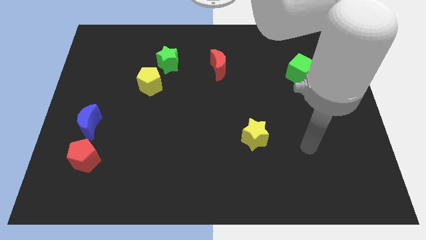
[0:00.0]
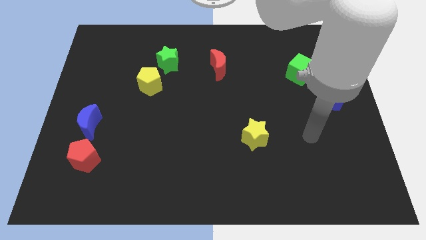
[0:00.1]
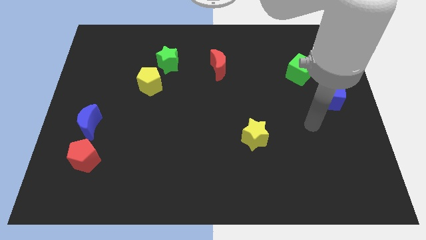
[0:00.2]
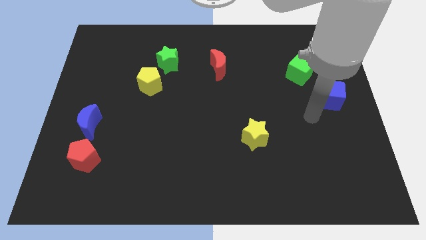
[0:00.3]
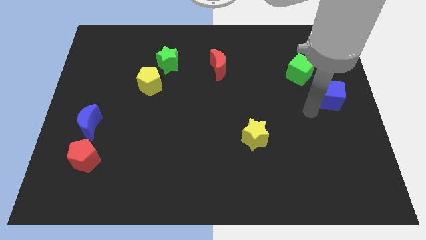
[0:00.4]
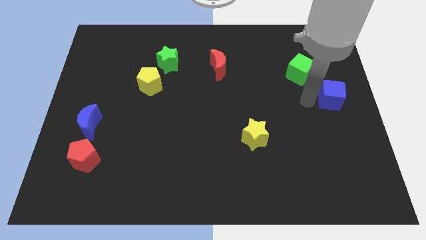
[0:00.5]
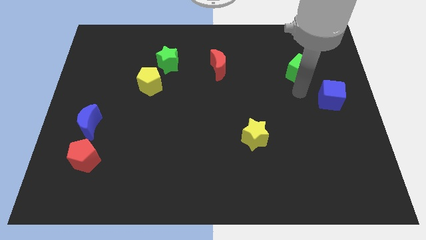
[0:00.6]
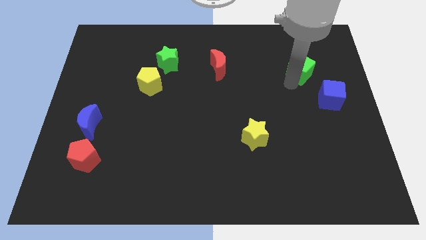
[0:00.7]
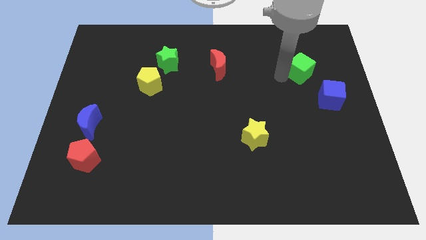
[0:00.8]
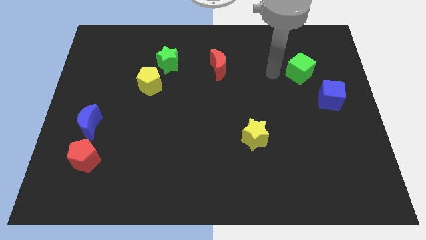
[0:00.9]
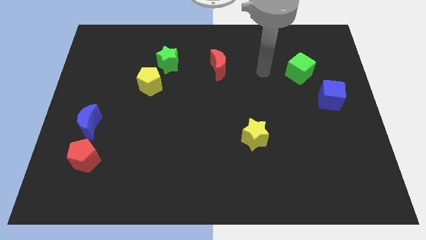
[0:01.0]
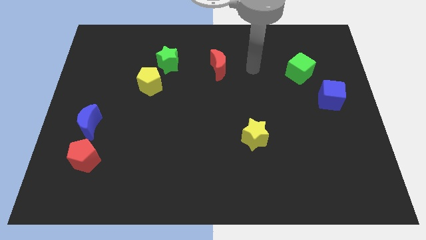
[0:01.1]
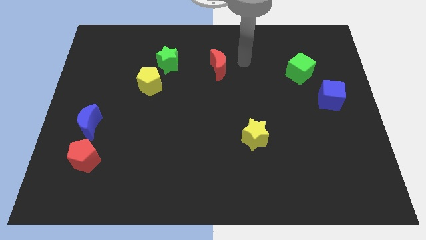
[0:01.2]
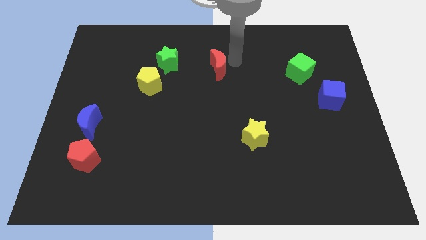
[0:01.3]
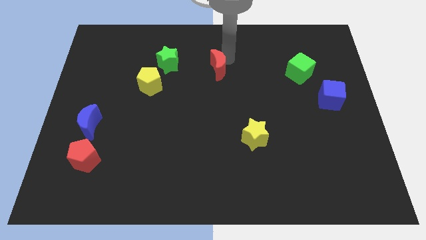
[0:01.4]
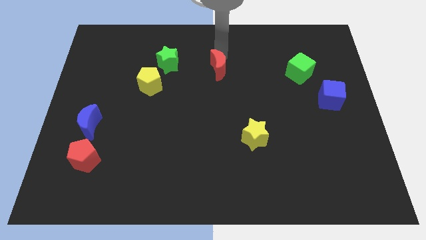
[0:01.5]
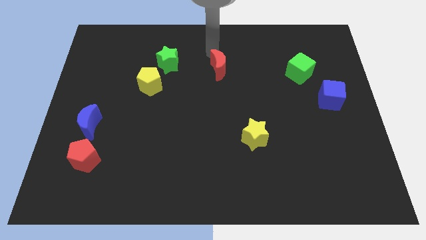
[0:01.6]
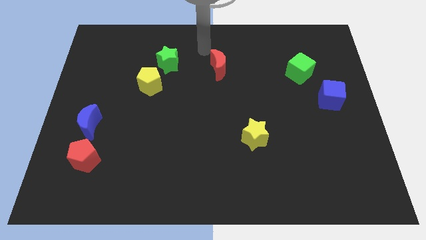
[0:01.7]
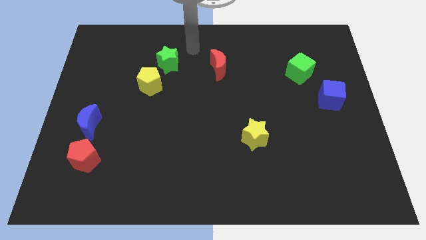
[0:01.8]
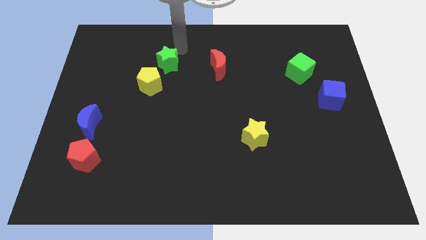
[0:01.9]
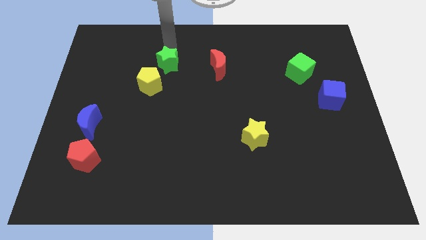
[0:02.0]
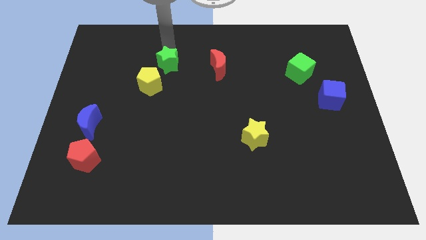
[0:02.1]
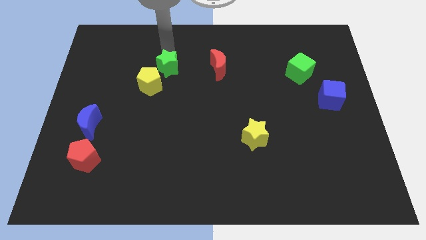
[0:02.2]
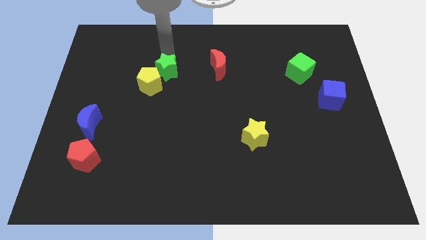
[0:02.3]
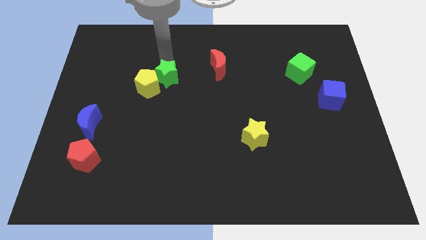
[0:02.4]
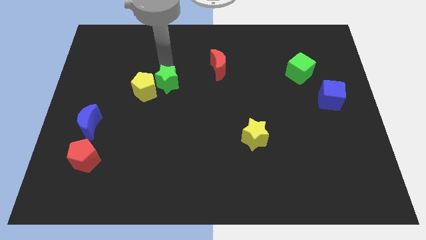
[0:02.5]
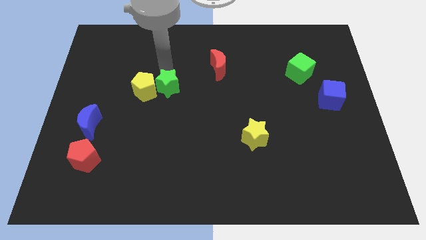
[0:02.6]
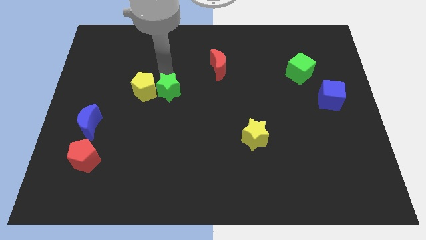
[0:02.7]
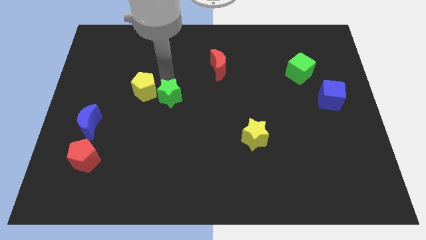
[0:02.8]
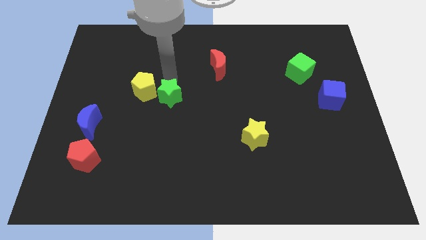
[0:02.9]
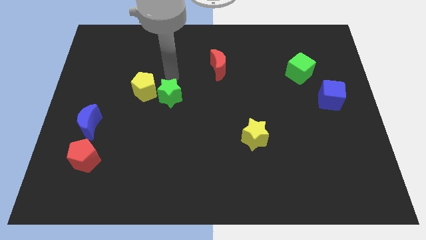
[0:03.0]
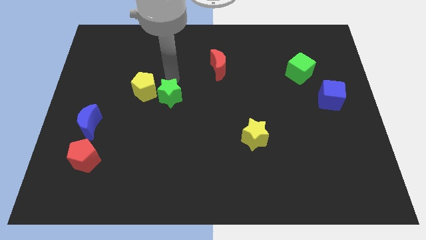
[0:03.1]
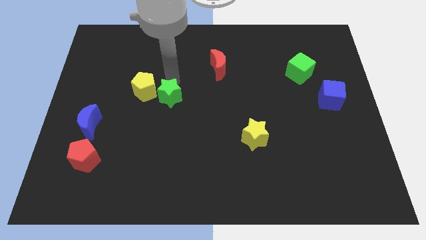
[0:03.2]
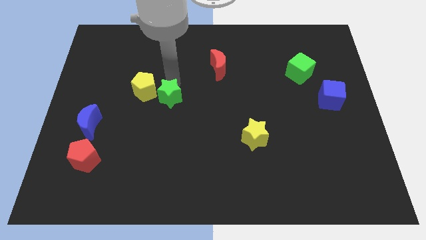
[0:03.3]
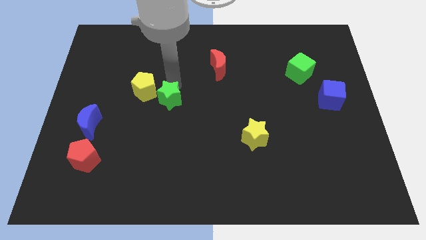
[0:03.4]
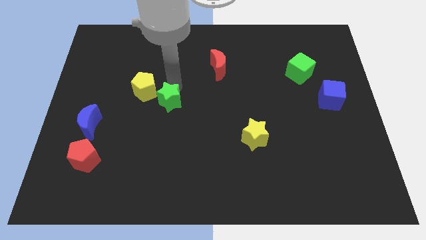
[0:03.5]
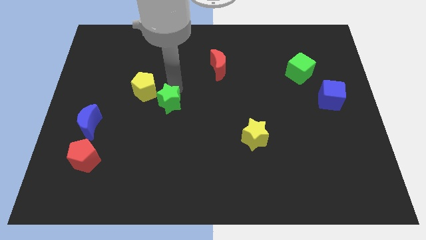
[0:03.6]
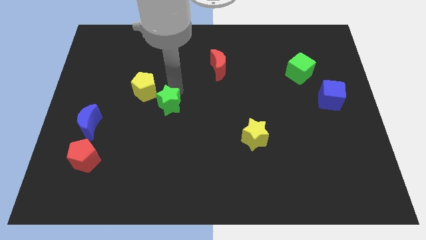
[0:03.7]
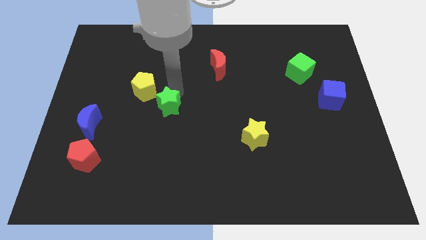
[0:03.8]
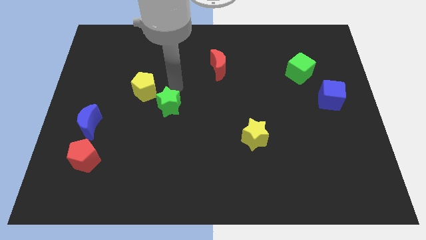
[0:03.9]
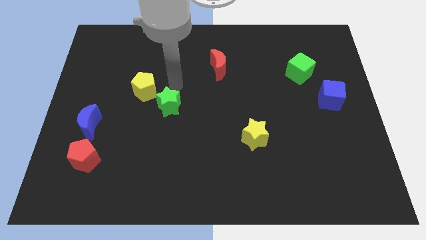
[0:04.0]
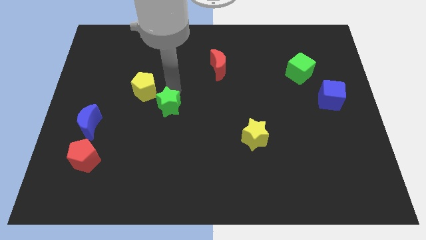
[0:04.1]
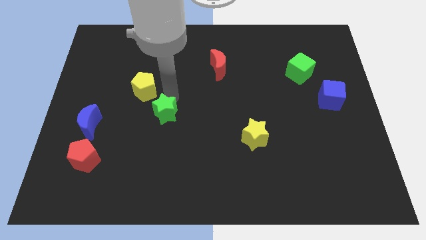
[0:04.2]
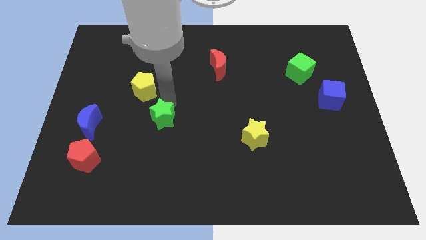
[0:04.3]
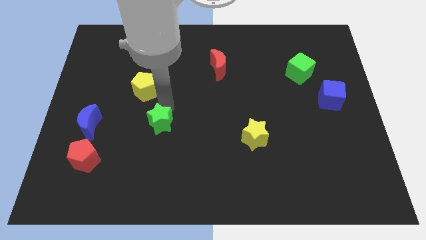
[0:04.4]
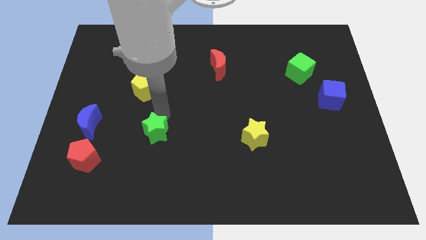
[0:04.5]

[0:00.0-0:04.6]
push the green star down

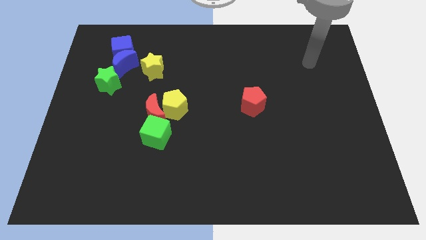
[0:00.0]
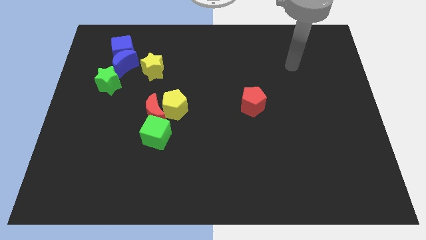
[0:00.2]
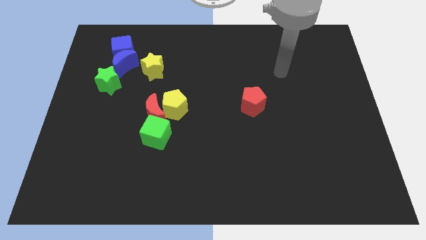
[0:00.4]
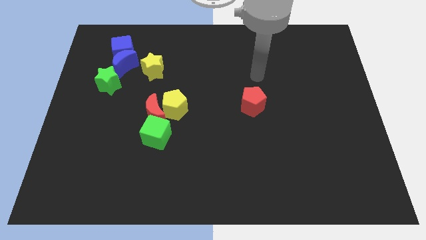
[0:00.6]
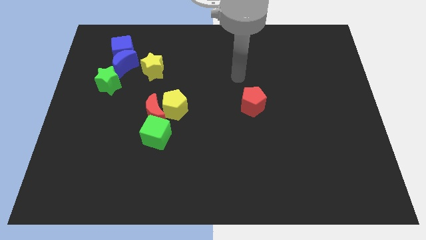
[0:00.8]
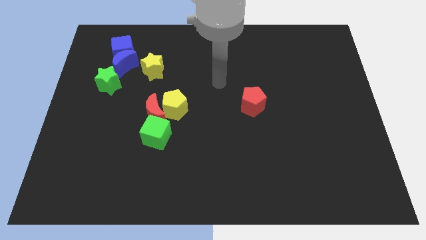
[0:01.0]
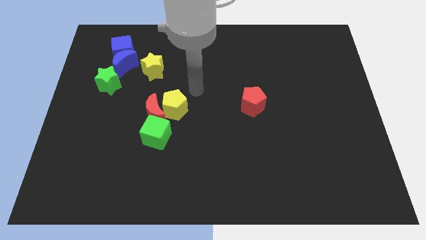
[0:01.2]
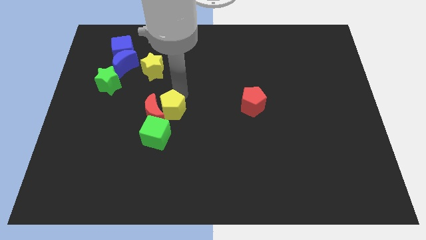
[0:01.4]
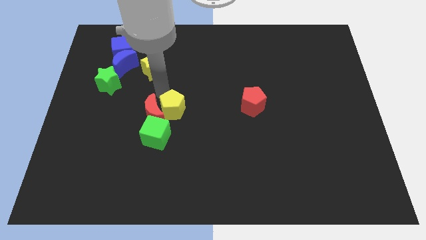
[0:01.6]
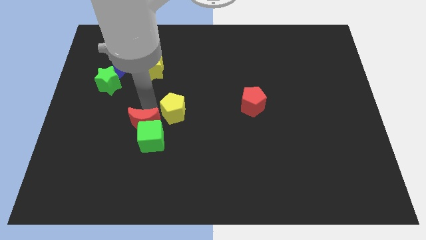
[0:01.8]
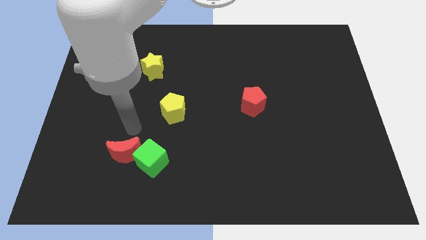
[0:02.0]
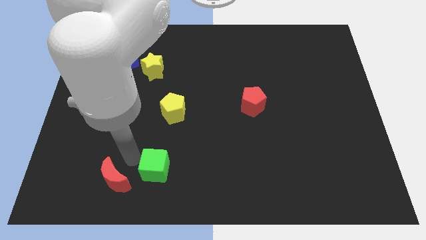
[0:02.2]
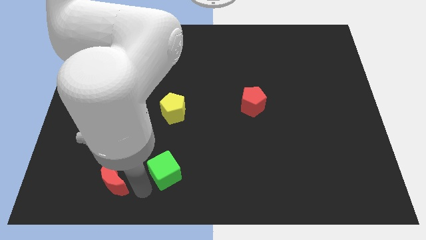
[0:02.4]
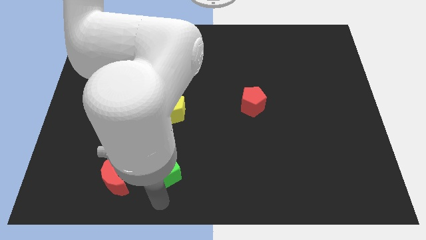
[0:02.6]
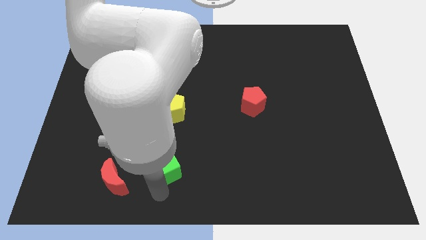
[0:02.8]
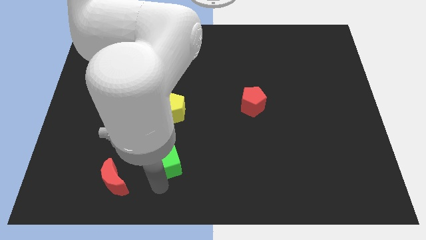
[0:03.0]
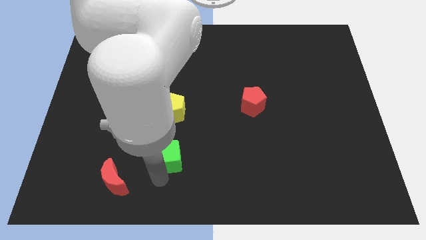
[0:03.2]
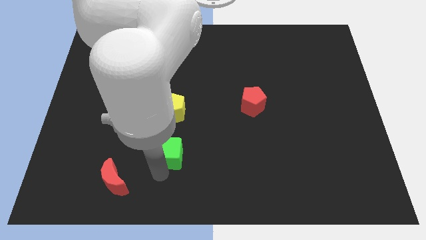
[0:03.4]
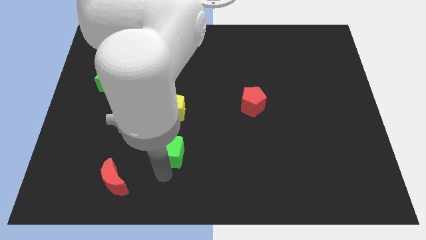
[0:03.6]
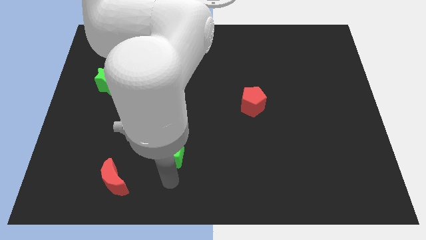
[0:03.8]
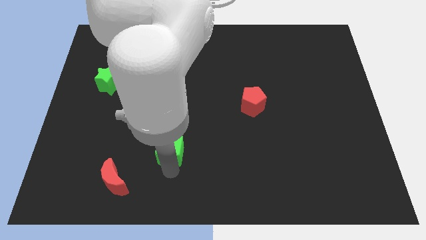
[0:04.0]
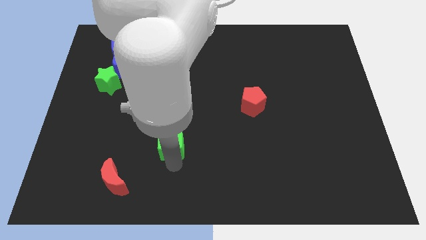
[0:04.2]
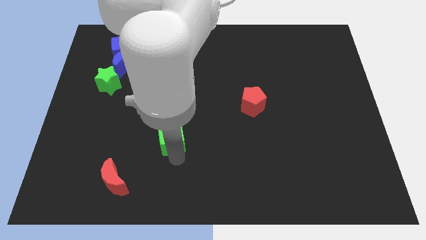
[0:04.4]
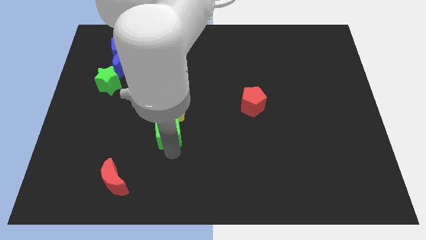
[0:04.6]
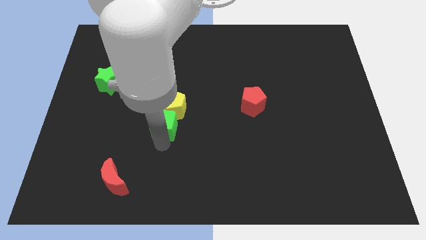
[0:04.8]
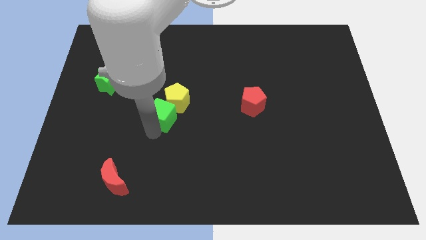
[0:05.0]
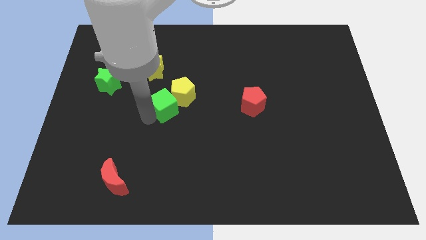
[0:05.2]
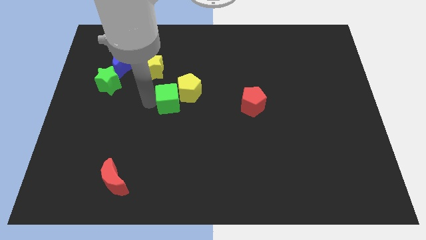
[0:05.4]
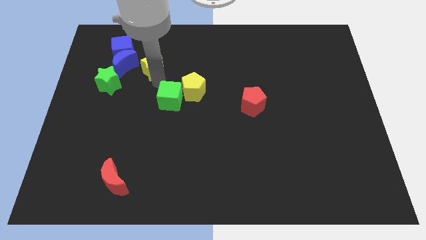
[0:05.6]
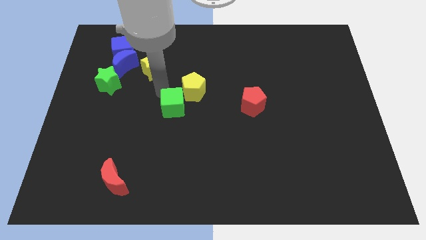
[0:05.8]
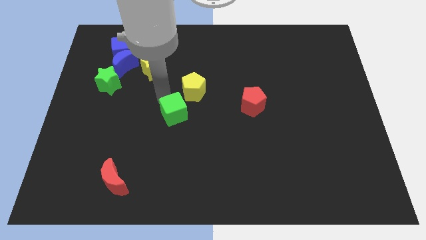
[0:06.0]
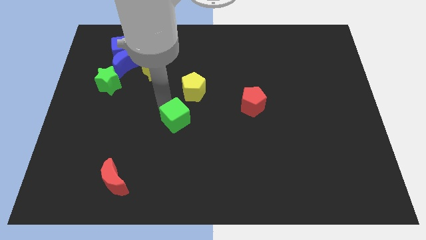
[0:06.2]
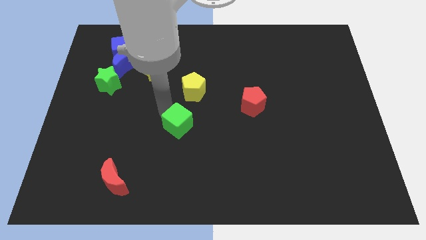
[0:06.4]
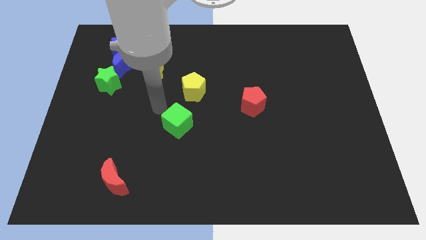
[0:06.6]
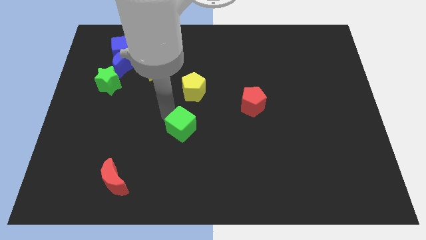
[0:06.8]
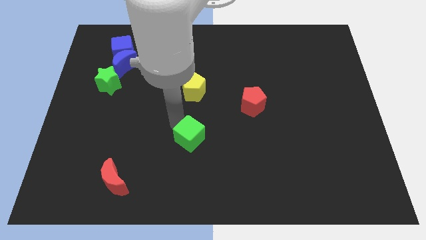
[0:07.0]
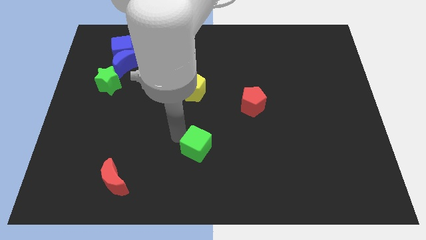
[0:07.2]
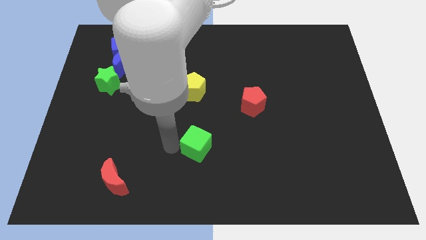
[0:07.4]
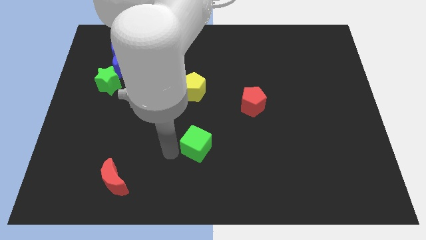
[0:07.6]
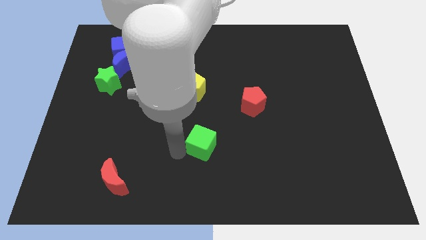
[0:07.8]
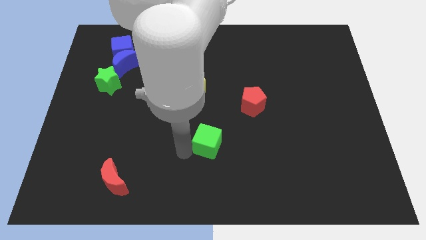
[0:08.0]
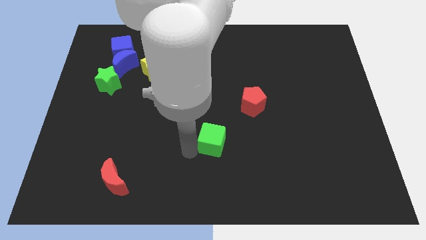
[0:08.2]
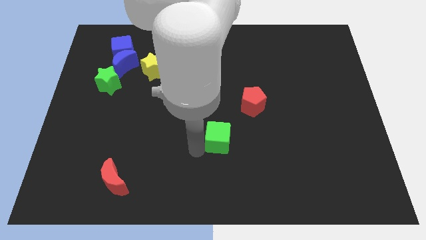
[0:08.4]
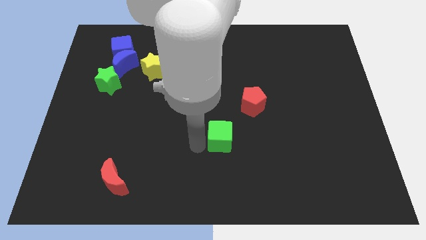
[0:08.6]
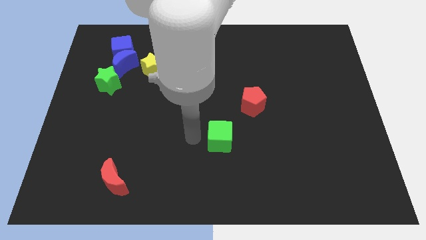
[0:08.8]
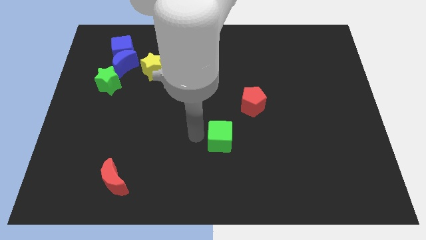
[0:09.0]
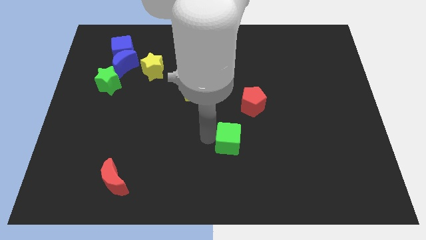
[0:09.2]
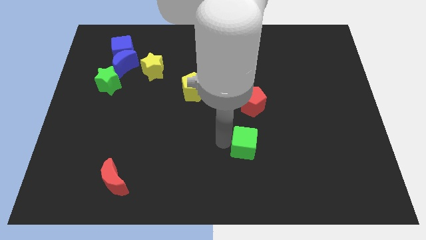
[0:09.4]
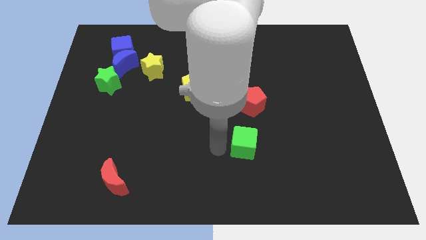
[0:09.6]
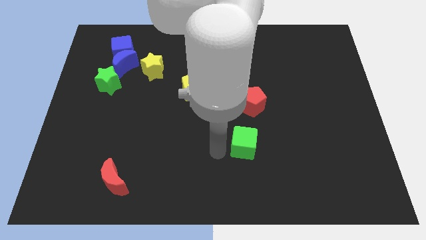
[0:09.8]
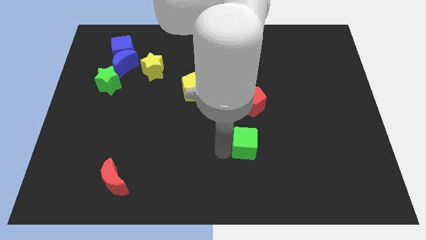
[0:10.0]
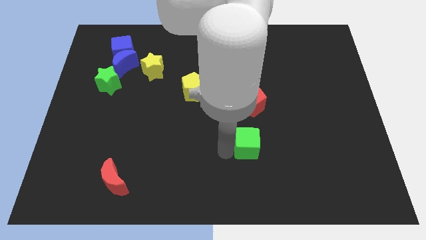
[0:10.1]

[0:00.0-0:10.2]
move the green cube right
